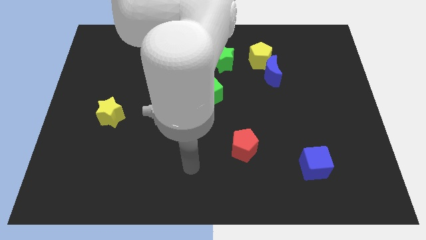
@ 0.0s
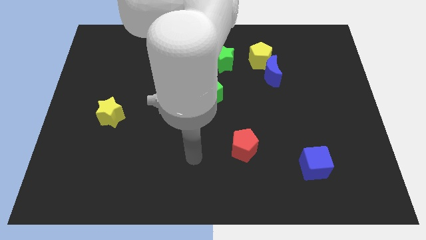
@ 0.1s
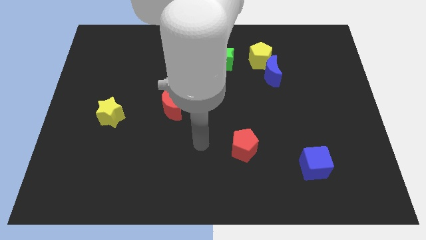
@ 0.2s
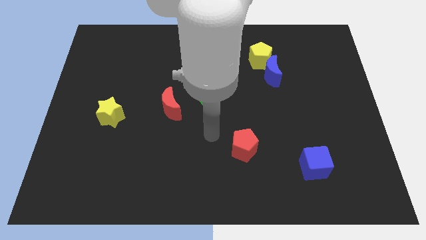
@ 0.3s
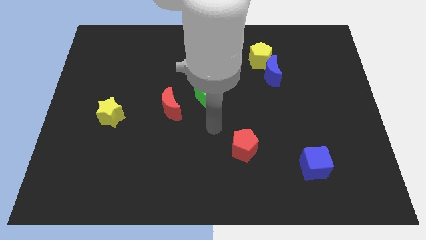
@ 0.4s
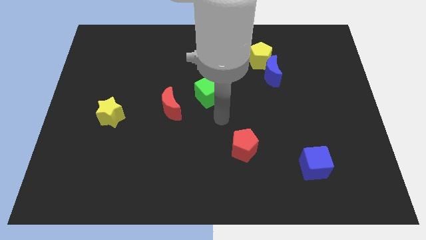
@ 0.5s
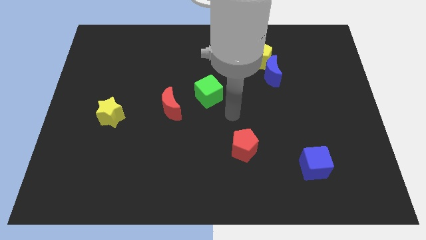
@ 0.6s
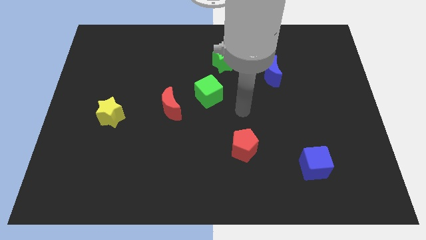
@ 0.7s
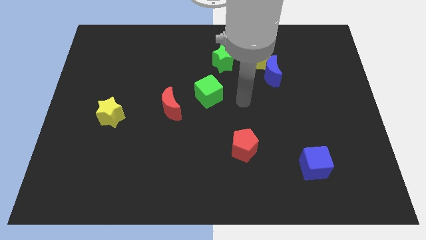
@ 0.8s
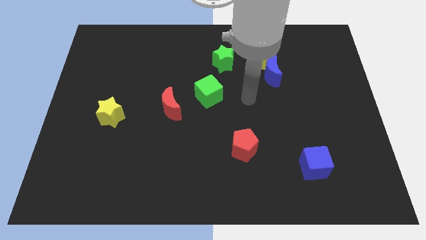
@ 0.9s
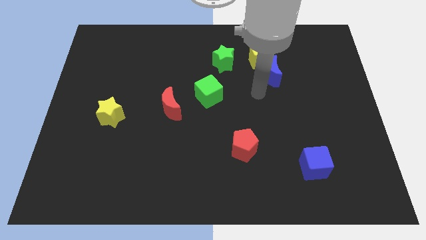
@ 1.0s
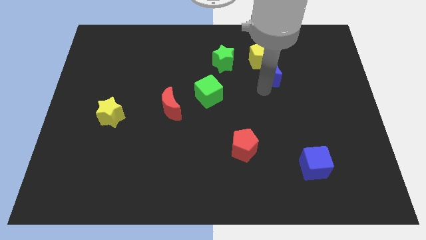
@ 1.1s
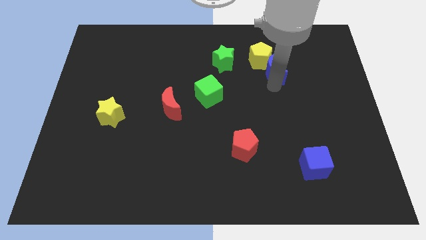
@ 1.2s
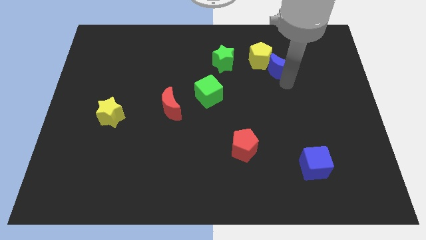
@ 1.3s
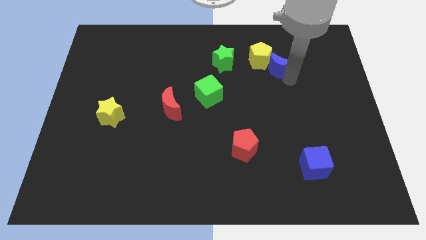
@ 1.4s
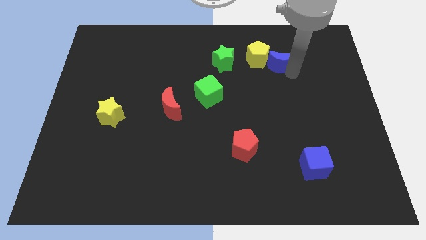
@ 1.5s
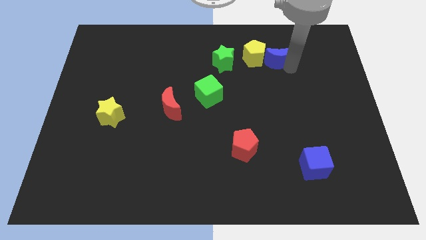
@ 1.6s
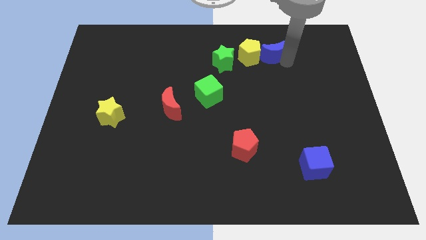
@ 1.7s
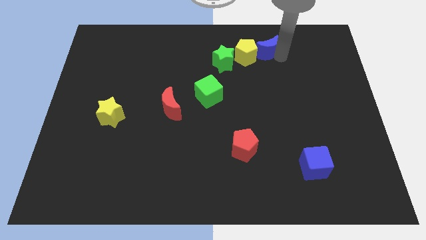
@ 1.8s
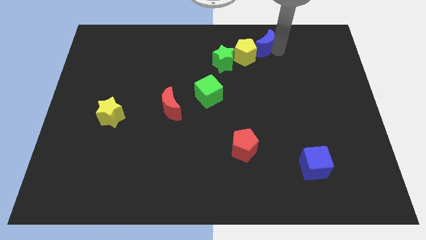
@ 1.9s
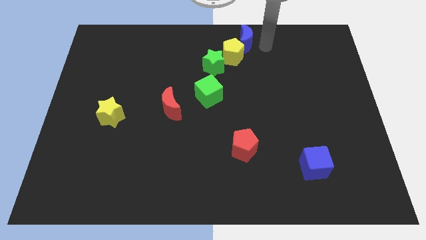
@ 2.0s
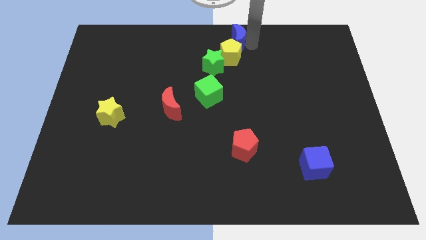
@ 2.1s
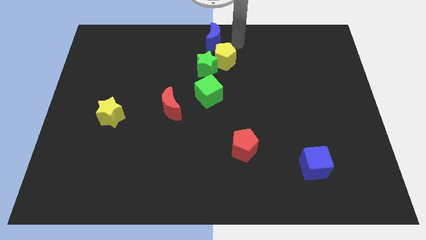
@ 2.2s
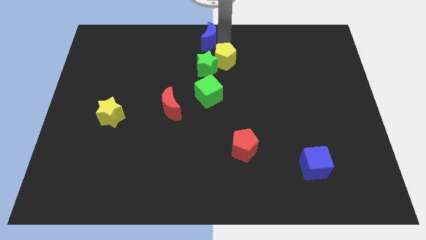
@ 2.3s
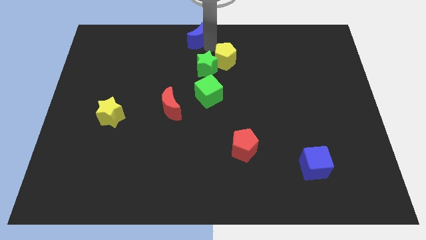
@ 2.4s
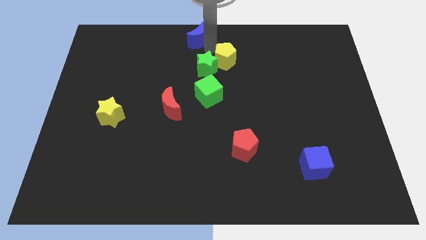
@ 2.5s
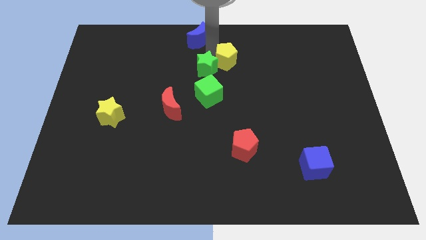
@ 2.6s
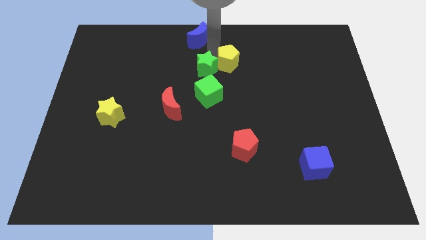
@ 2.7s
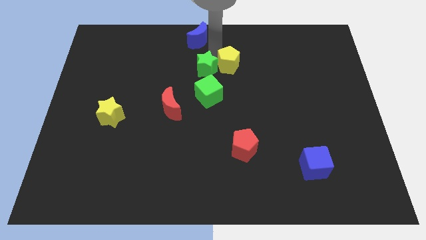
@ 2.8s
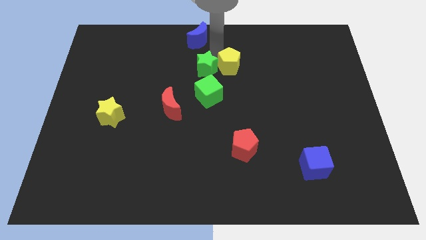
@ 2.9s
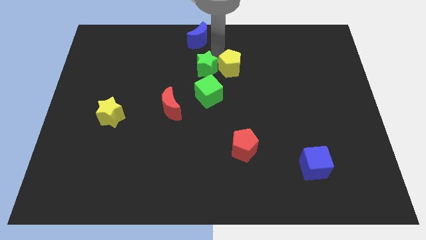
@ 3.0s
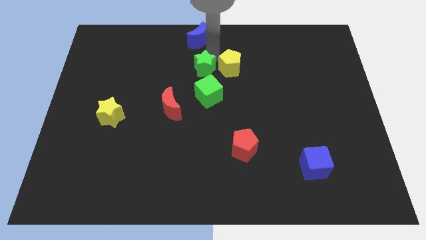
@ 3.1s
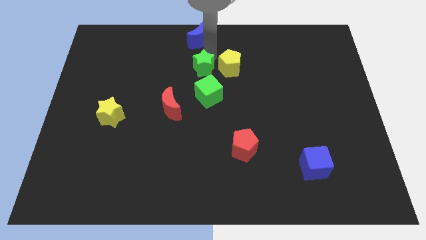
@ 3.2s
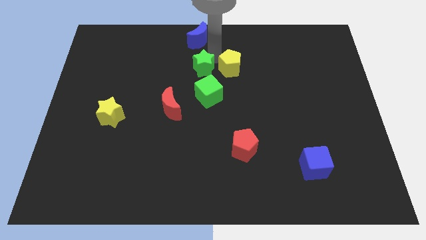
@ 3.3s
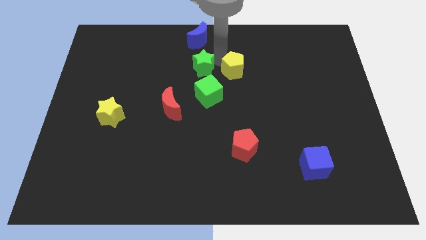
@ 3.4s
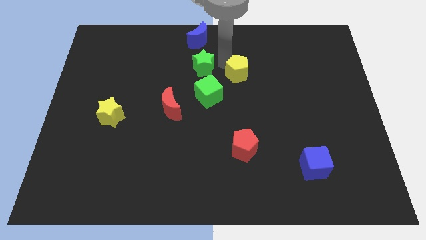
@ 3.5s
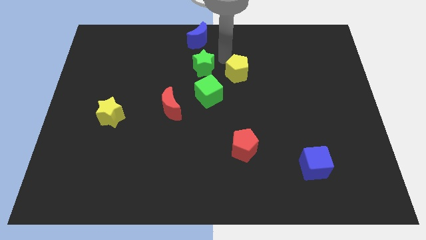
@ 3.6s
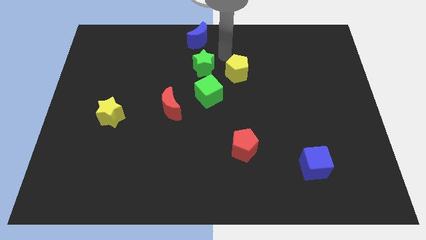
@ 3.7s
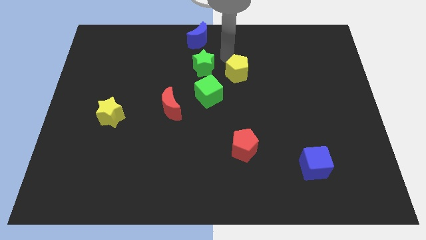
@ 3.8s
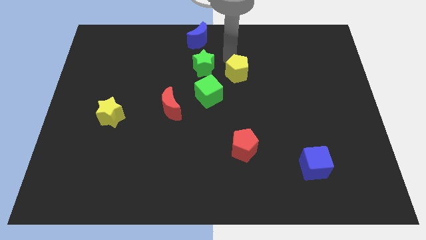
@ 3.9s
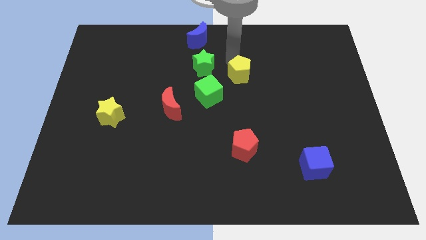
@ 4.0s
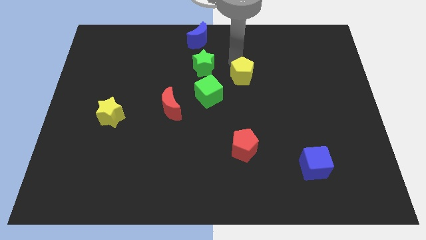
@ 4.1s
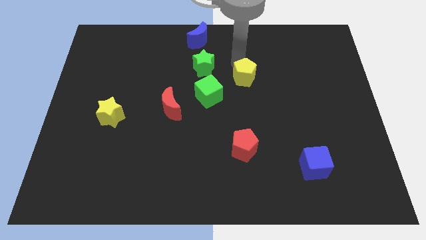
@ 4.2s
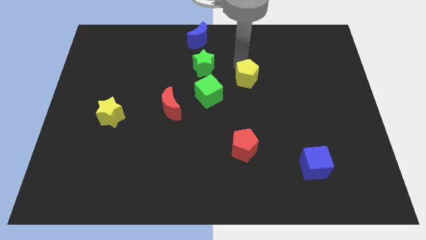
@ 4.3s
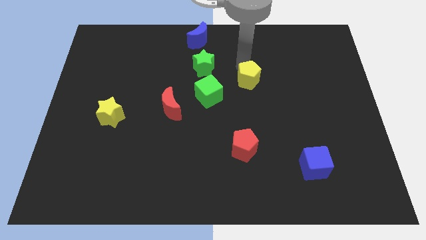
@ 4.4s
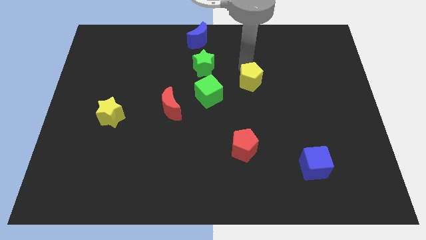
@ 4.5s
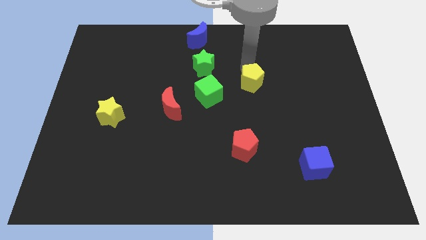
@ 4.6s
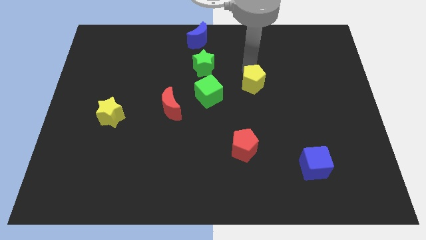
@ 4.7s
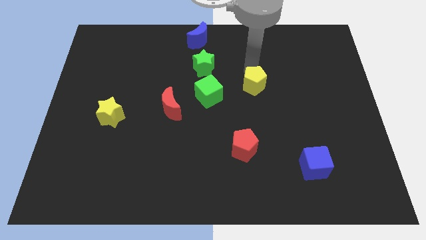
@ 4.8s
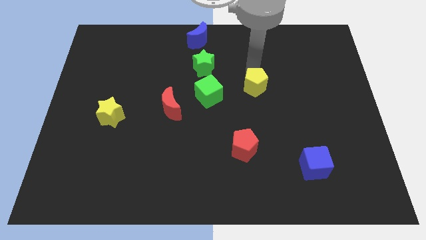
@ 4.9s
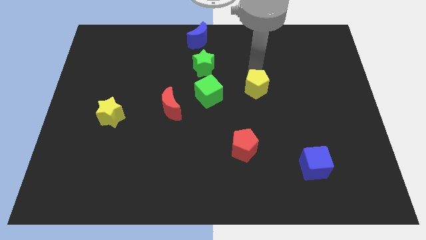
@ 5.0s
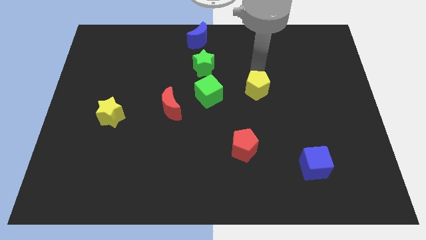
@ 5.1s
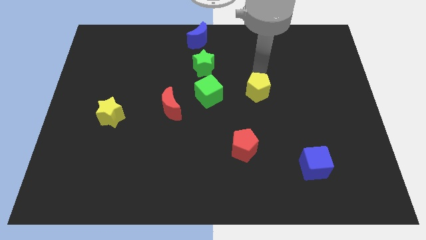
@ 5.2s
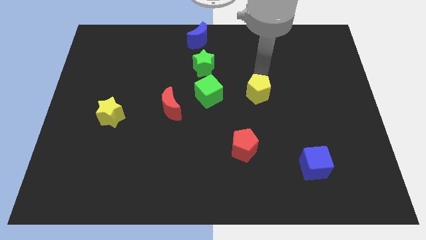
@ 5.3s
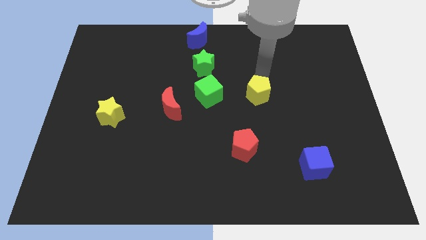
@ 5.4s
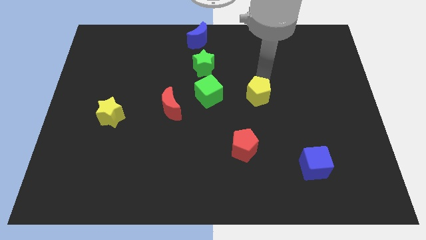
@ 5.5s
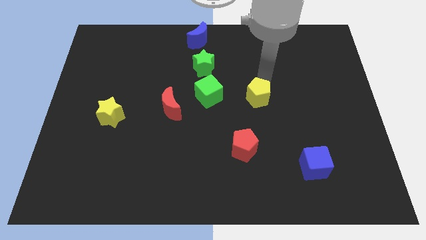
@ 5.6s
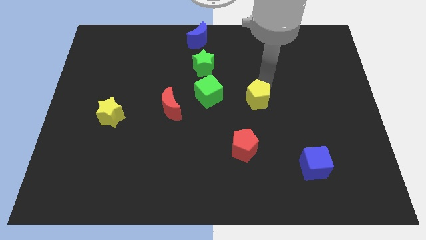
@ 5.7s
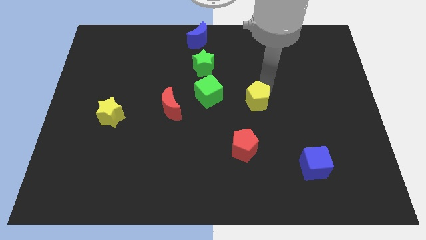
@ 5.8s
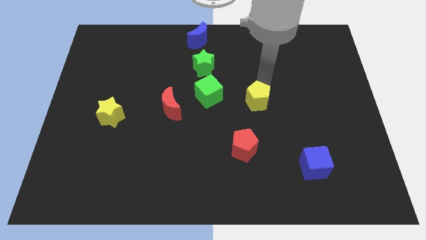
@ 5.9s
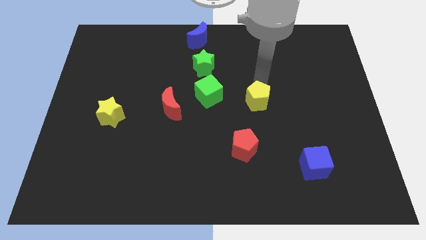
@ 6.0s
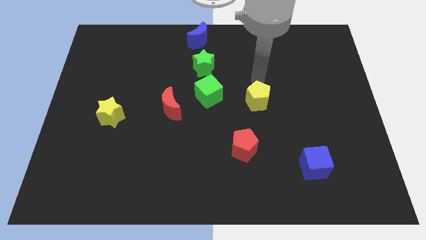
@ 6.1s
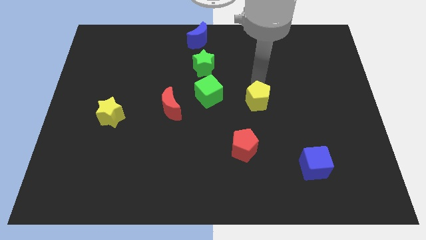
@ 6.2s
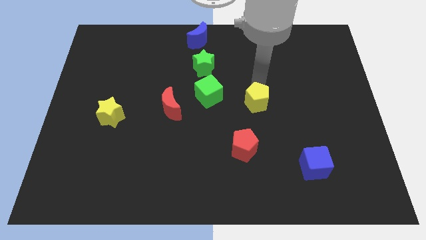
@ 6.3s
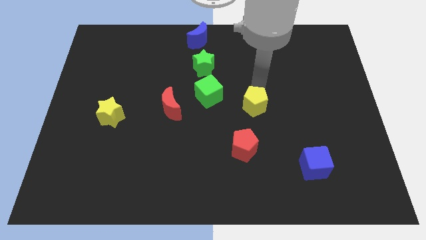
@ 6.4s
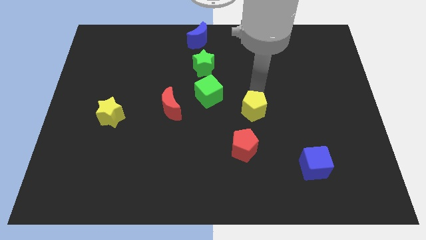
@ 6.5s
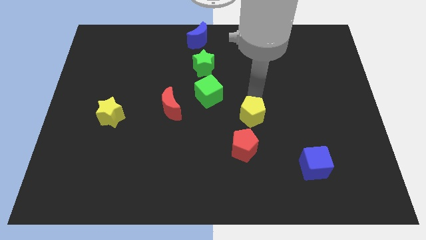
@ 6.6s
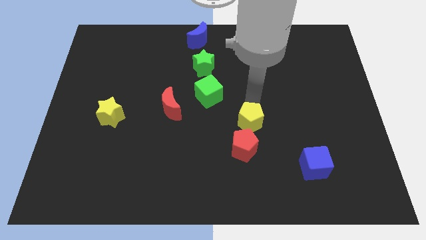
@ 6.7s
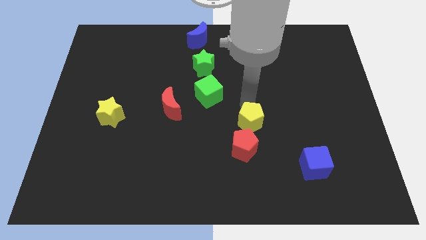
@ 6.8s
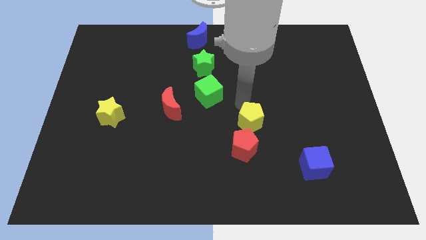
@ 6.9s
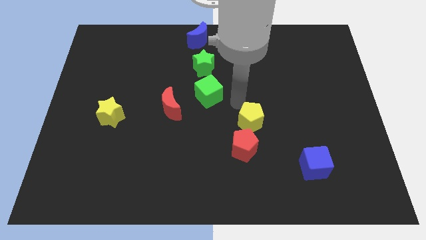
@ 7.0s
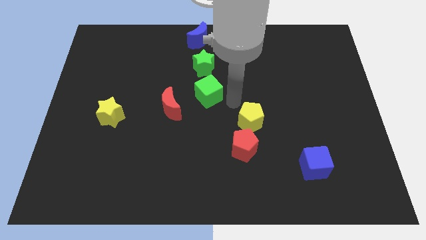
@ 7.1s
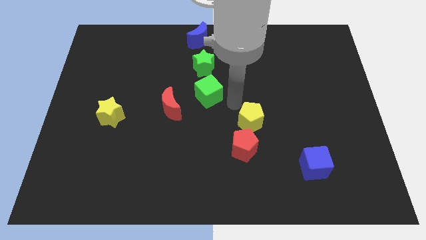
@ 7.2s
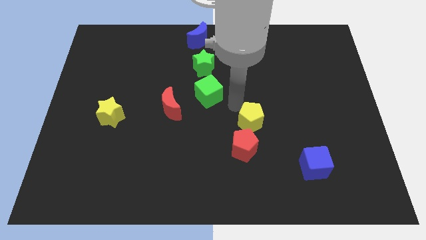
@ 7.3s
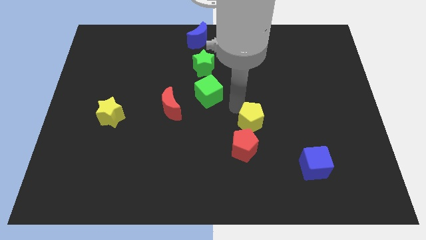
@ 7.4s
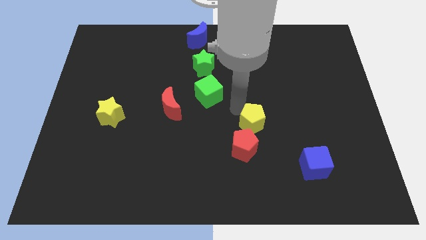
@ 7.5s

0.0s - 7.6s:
slide the yellow pentagon downwards

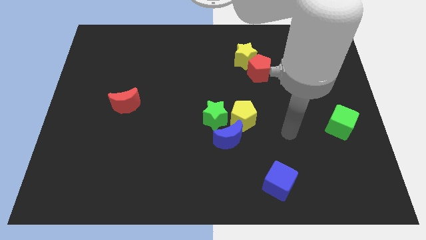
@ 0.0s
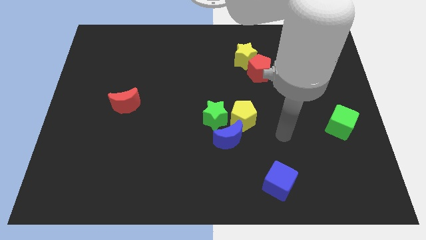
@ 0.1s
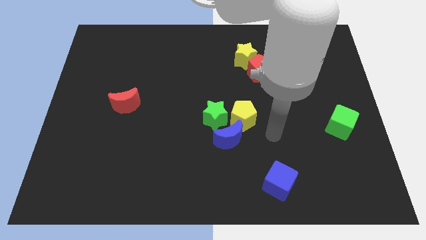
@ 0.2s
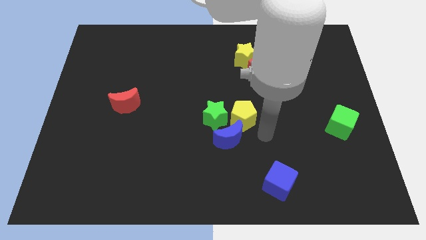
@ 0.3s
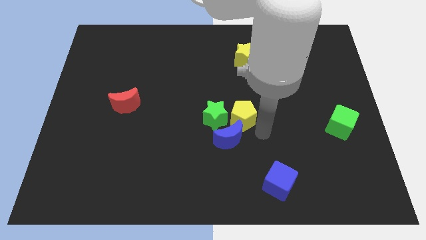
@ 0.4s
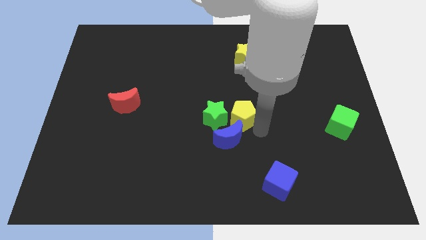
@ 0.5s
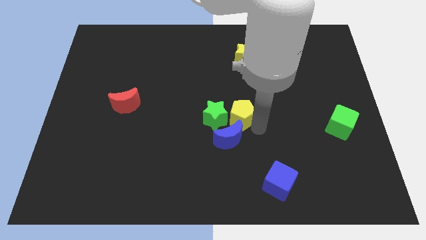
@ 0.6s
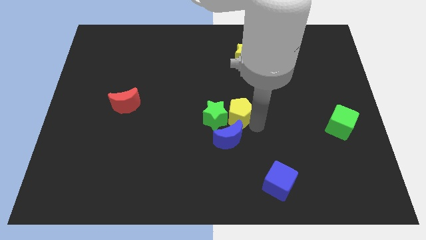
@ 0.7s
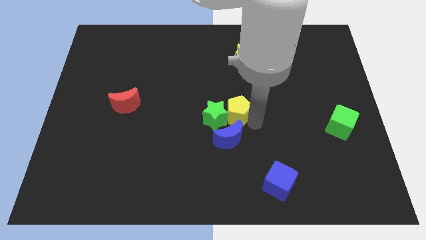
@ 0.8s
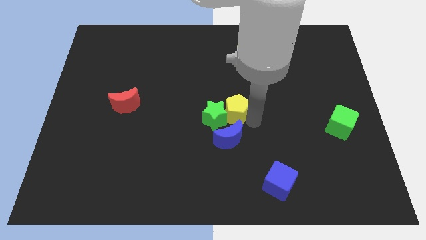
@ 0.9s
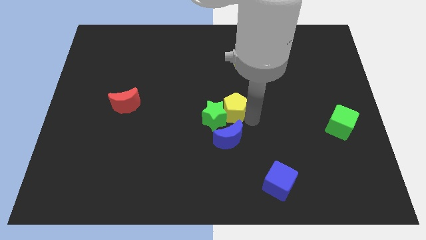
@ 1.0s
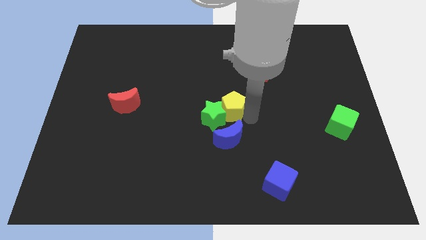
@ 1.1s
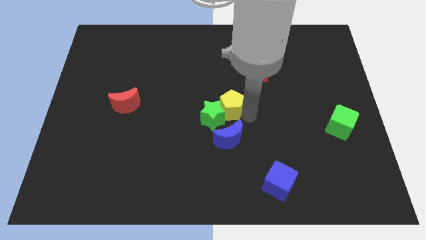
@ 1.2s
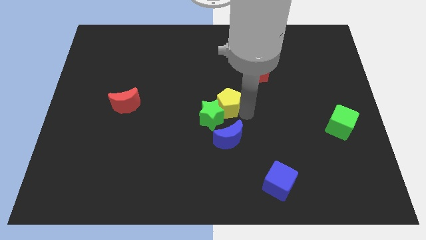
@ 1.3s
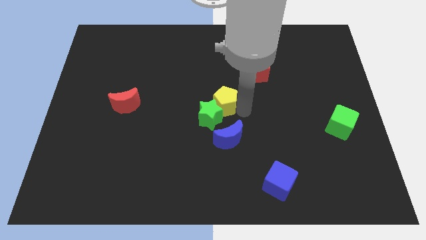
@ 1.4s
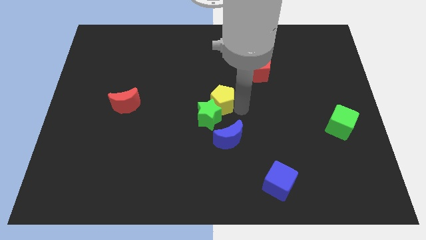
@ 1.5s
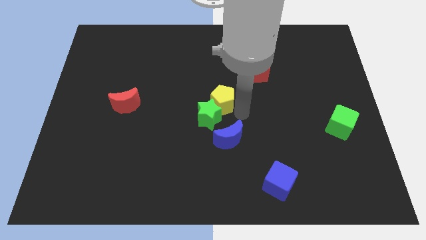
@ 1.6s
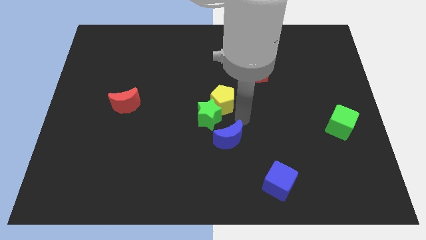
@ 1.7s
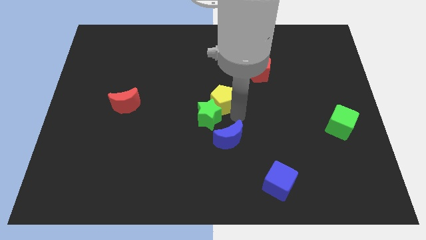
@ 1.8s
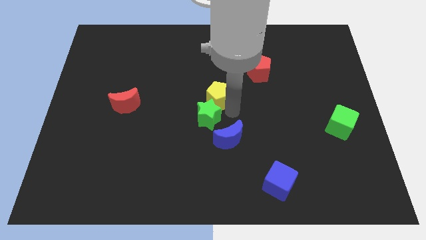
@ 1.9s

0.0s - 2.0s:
move the yellow pentagon diagonally up and left a bit
